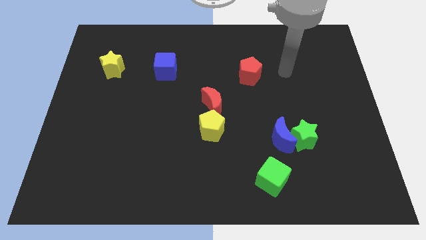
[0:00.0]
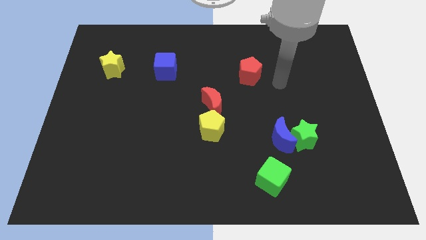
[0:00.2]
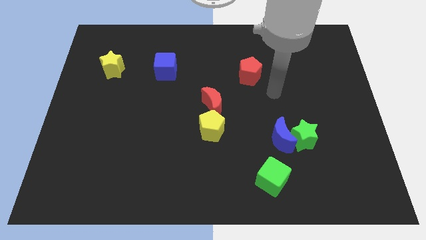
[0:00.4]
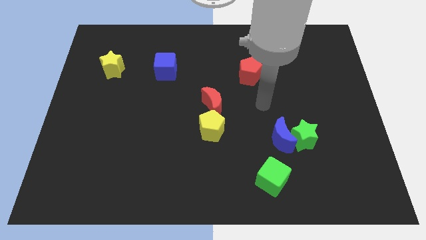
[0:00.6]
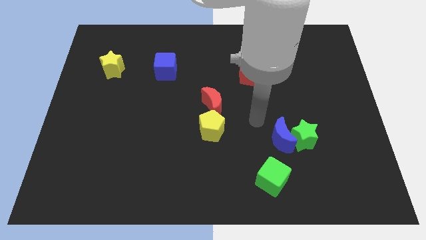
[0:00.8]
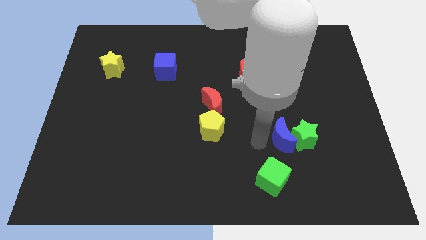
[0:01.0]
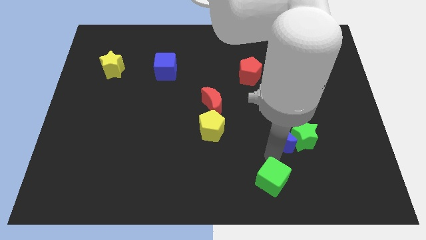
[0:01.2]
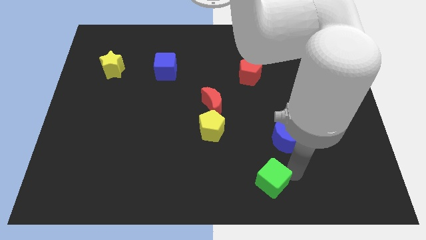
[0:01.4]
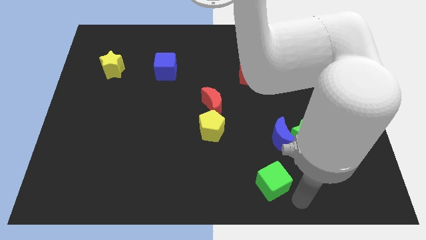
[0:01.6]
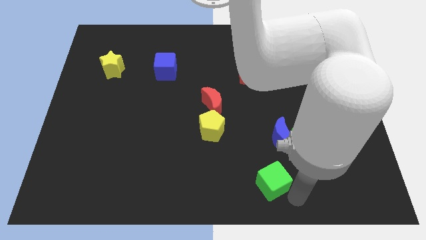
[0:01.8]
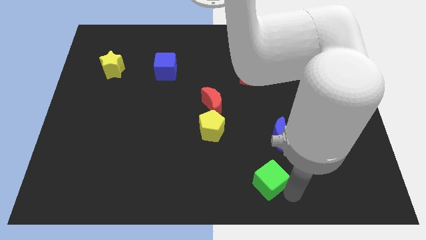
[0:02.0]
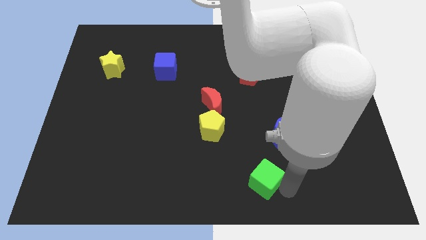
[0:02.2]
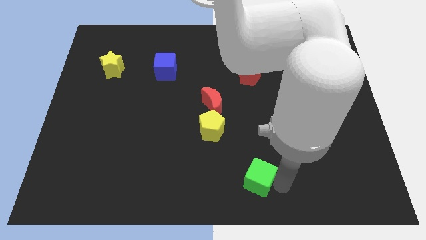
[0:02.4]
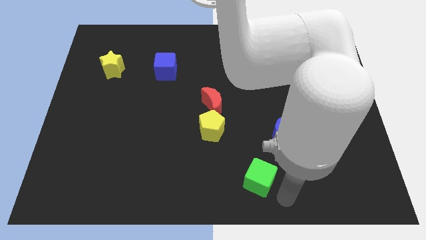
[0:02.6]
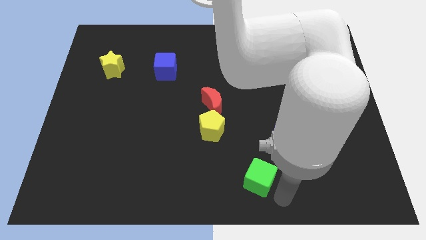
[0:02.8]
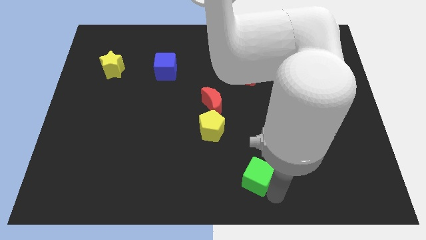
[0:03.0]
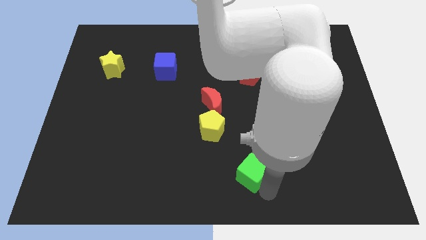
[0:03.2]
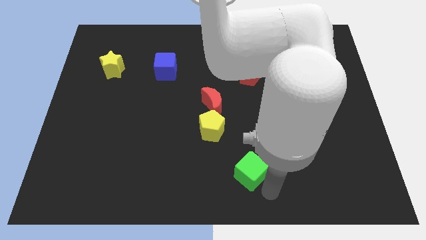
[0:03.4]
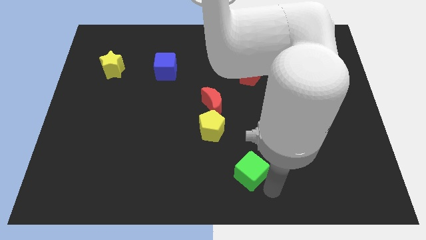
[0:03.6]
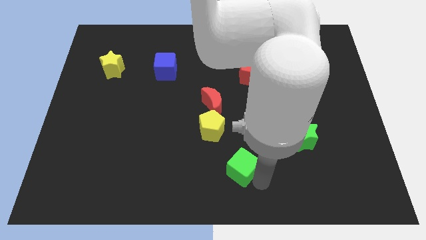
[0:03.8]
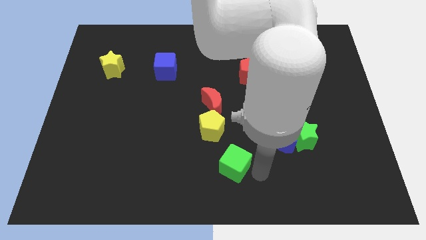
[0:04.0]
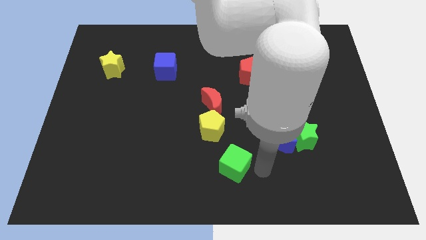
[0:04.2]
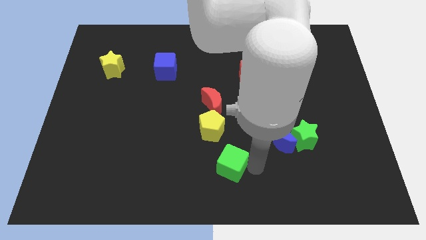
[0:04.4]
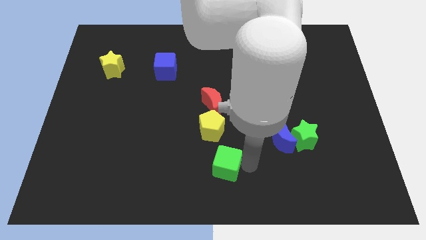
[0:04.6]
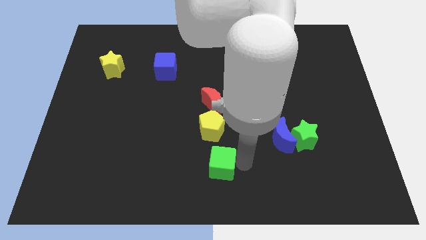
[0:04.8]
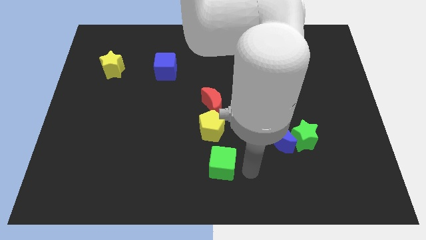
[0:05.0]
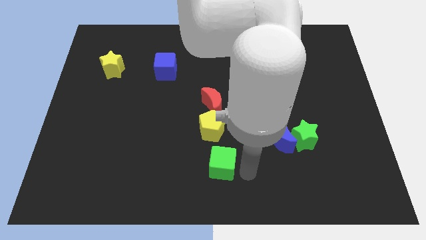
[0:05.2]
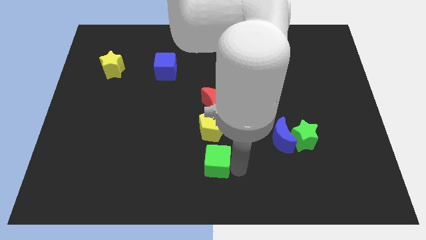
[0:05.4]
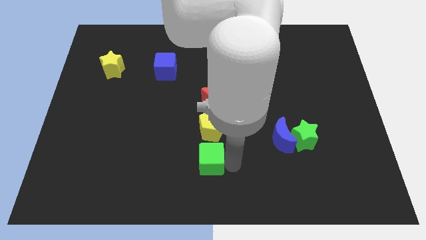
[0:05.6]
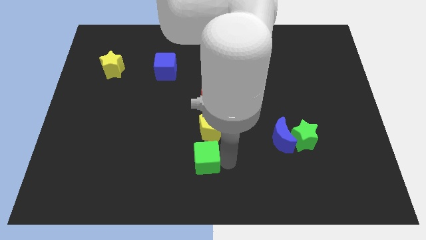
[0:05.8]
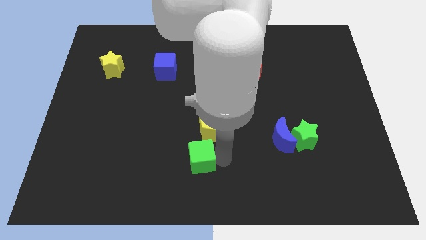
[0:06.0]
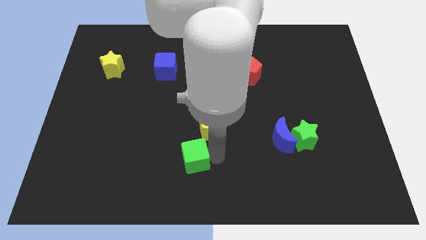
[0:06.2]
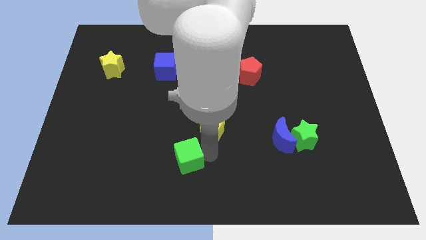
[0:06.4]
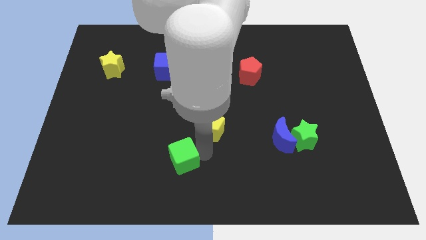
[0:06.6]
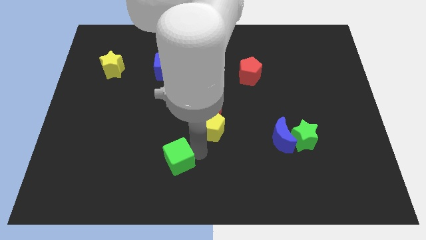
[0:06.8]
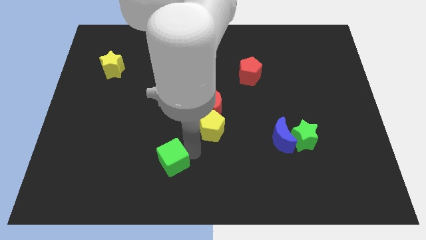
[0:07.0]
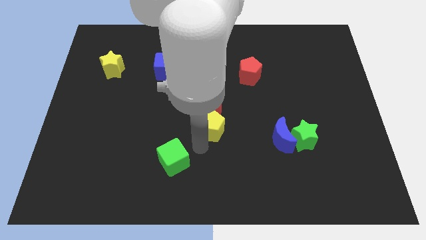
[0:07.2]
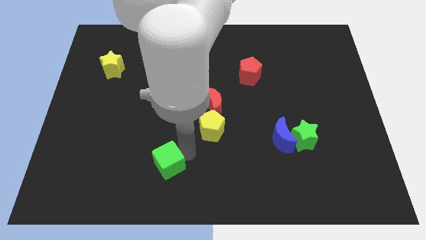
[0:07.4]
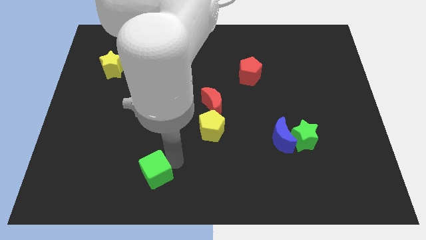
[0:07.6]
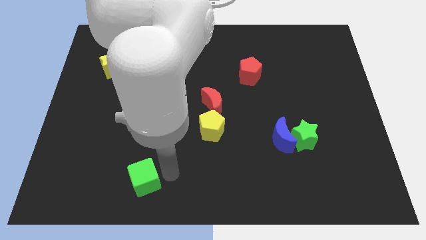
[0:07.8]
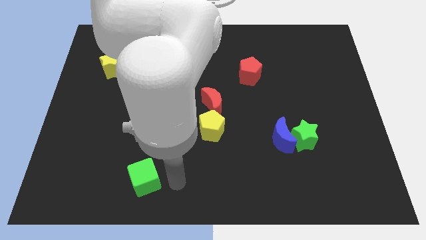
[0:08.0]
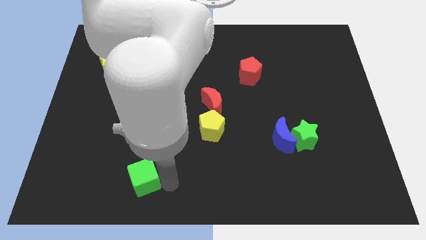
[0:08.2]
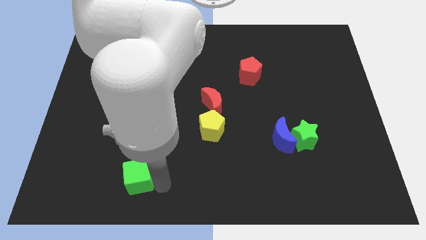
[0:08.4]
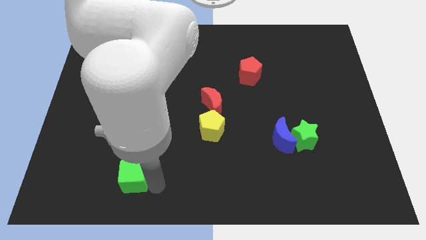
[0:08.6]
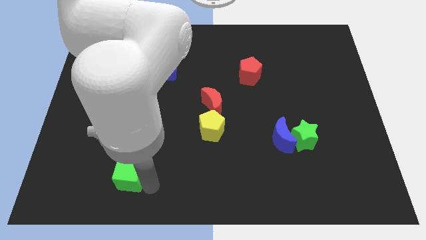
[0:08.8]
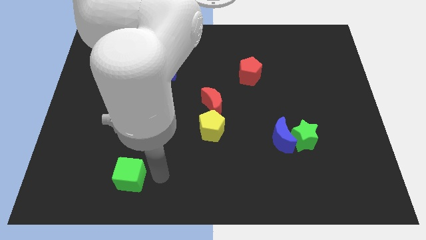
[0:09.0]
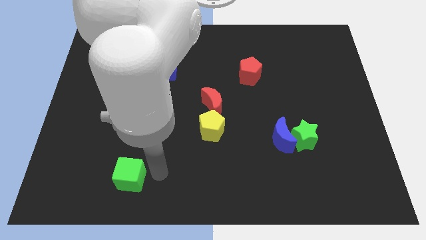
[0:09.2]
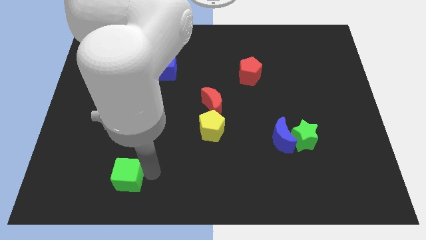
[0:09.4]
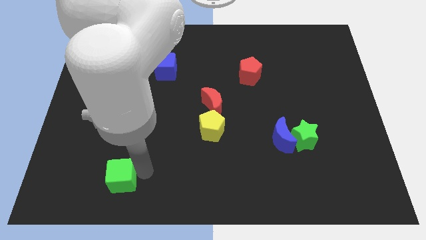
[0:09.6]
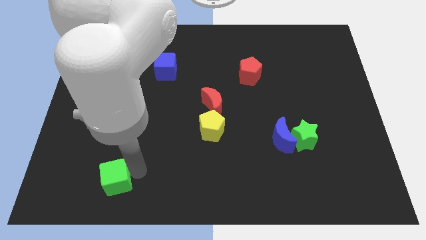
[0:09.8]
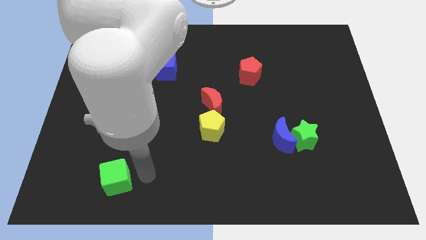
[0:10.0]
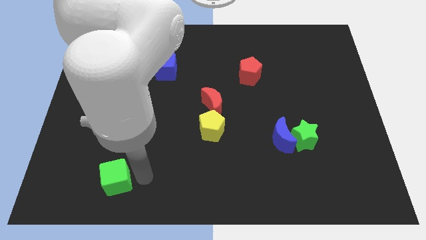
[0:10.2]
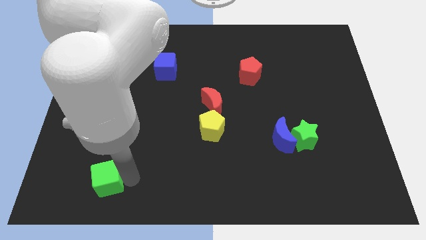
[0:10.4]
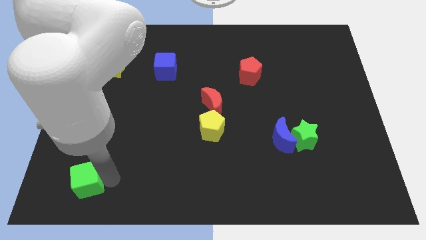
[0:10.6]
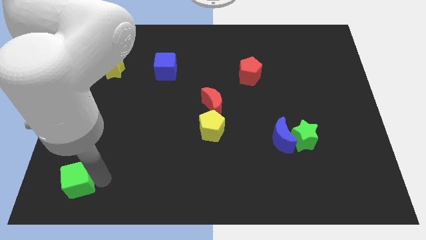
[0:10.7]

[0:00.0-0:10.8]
slide the green cube to the bottom left

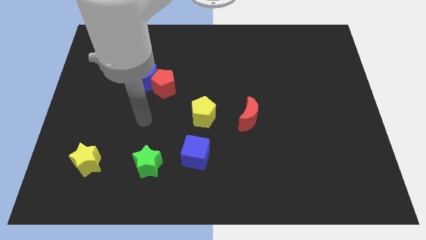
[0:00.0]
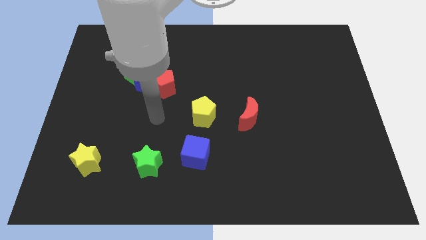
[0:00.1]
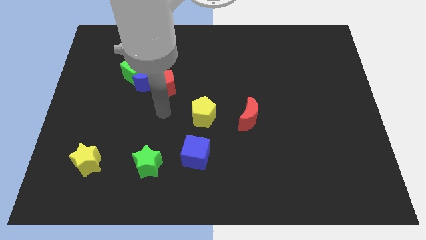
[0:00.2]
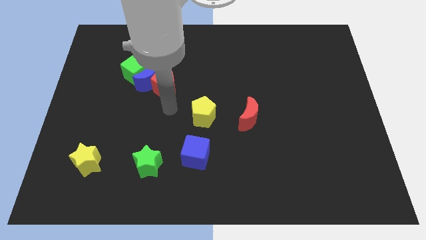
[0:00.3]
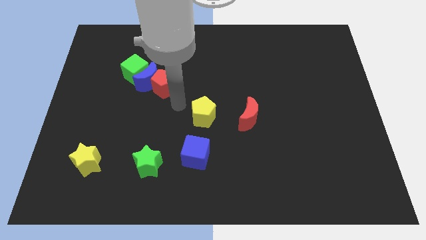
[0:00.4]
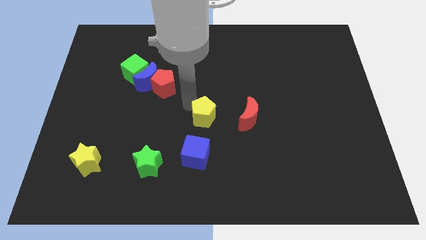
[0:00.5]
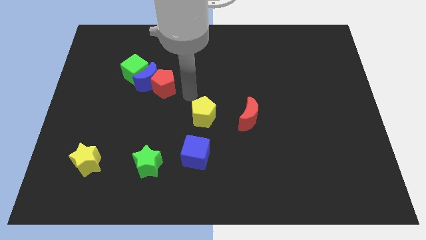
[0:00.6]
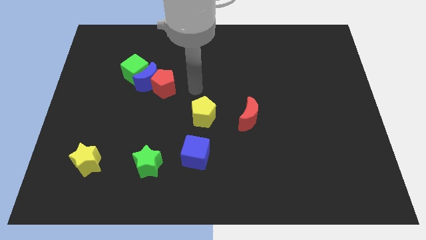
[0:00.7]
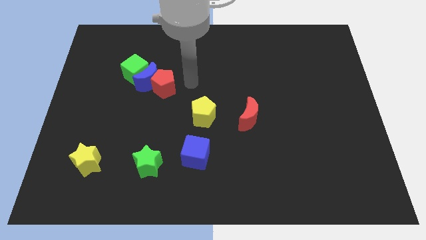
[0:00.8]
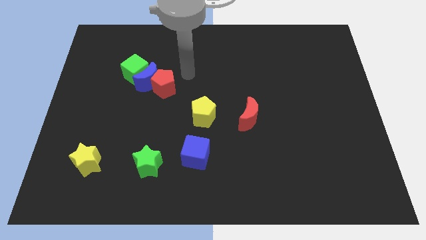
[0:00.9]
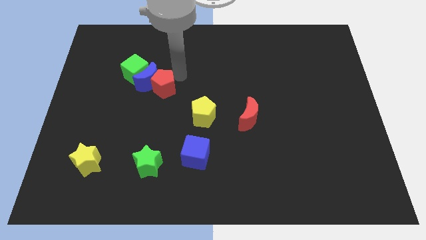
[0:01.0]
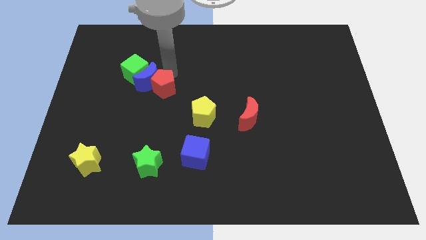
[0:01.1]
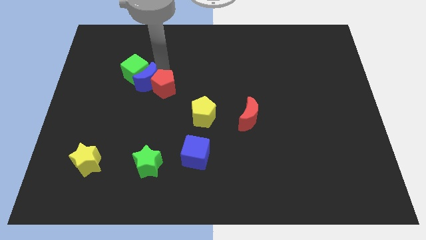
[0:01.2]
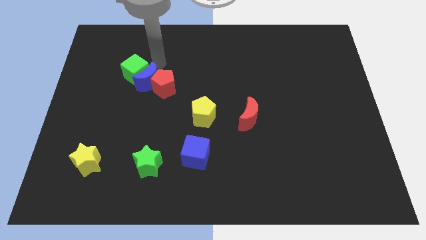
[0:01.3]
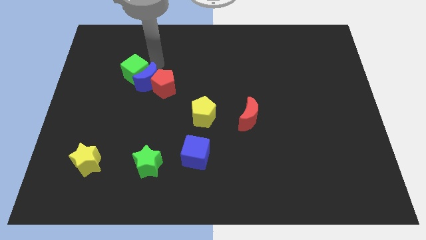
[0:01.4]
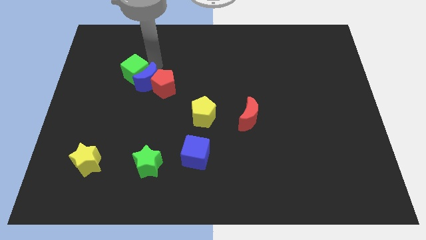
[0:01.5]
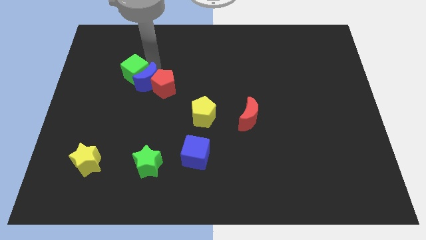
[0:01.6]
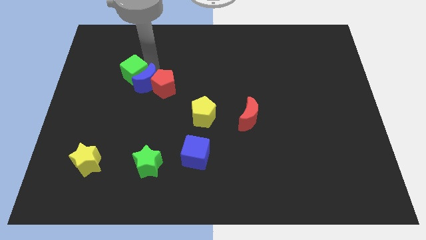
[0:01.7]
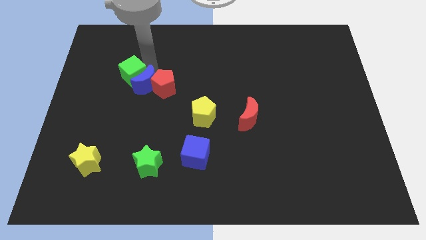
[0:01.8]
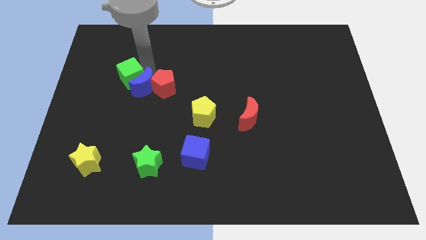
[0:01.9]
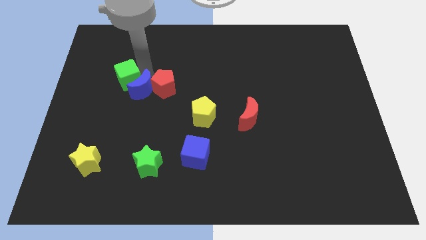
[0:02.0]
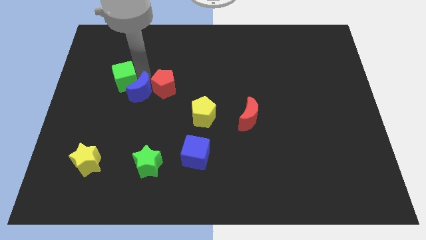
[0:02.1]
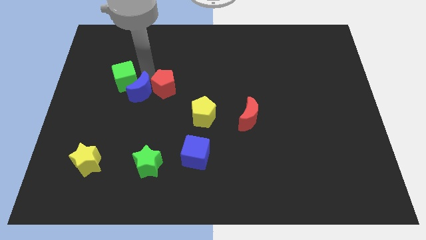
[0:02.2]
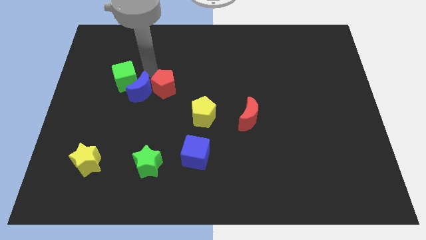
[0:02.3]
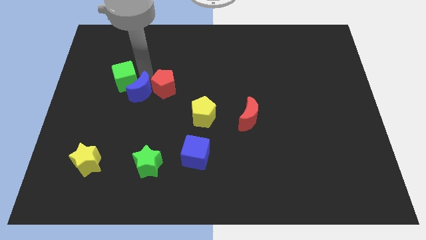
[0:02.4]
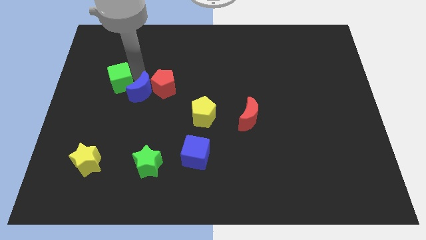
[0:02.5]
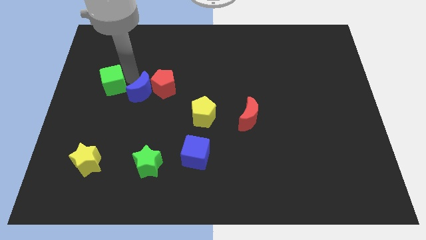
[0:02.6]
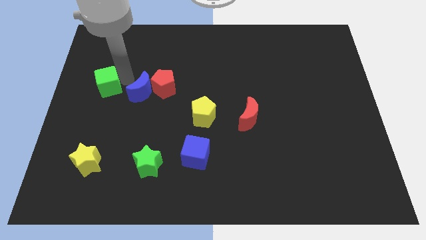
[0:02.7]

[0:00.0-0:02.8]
put the green cube to the left side
